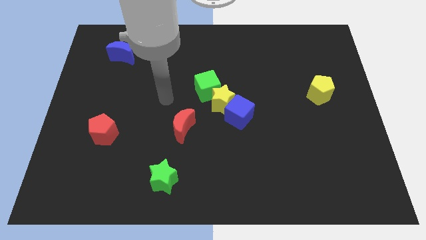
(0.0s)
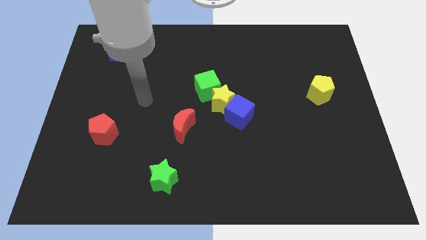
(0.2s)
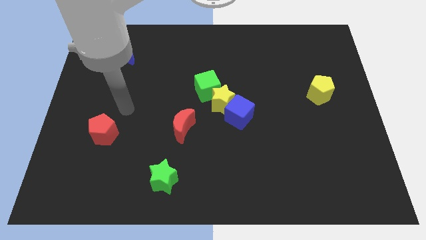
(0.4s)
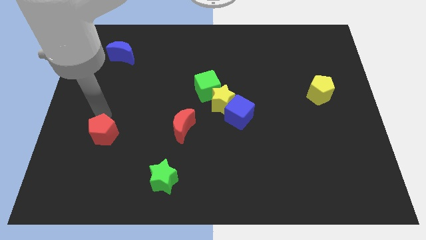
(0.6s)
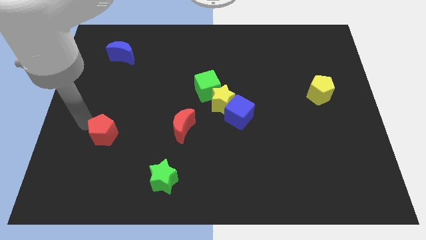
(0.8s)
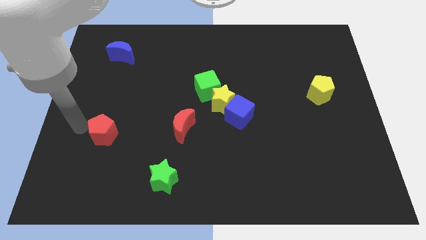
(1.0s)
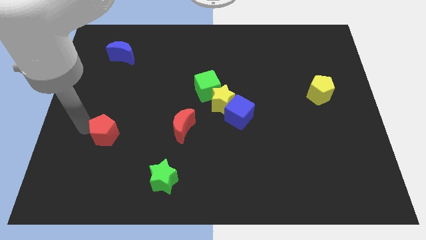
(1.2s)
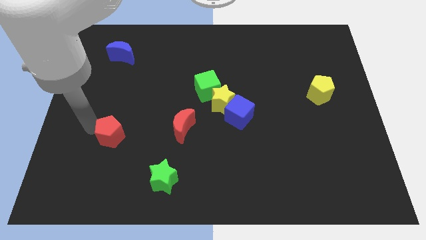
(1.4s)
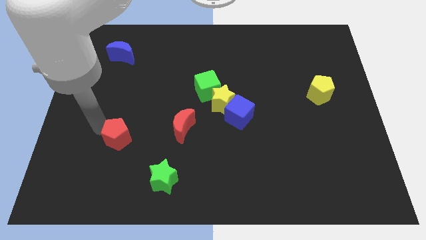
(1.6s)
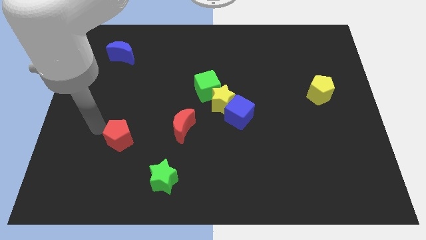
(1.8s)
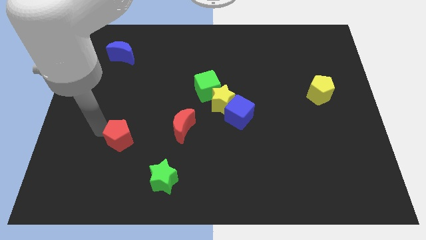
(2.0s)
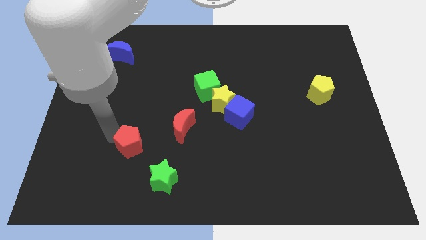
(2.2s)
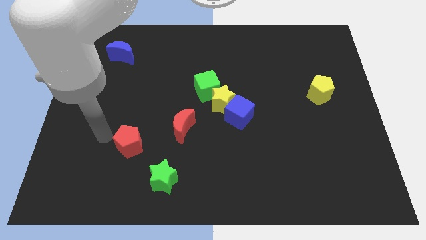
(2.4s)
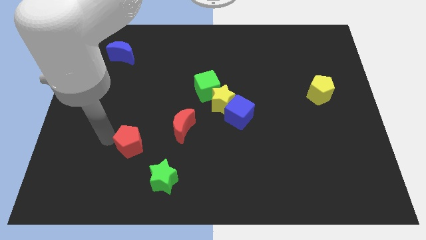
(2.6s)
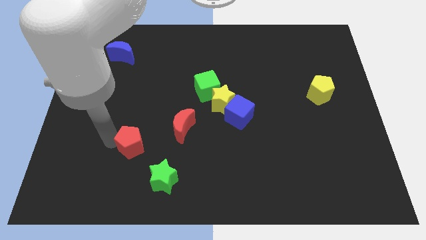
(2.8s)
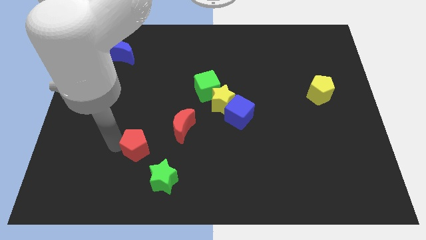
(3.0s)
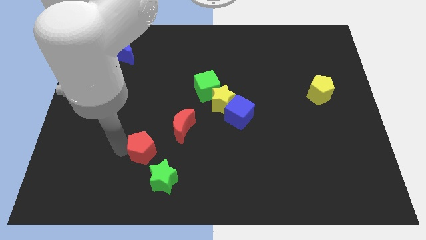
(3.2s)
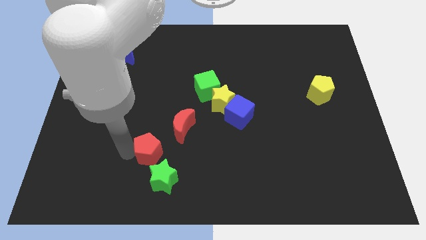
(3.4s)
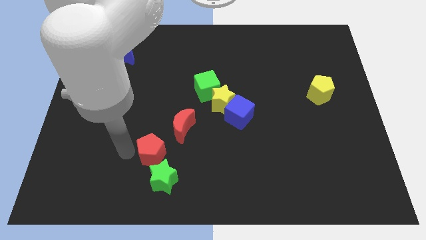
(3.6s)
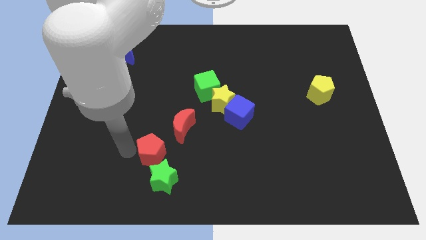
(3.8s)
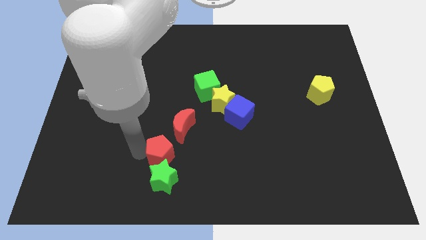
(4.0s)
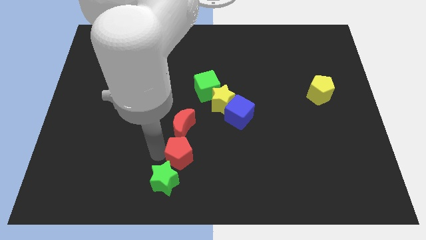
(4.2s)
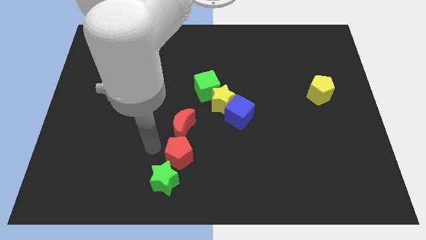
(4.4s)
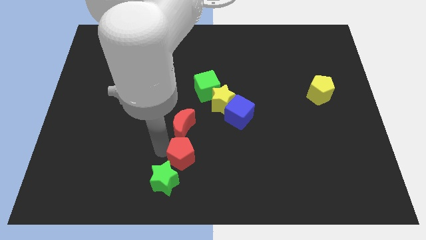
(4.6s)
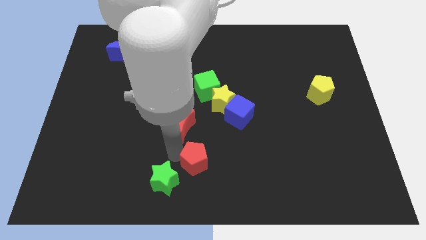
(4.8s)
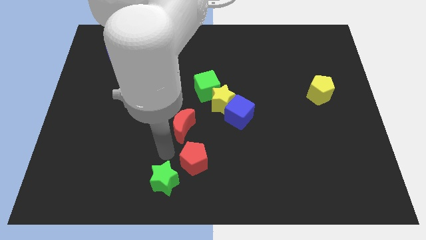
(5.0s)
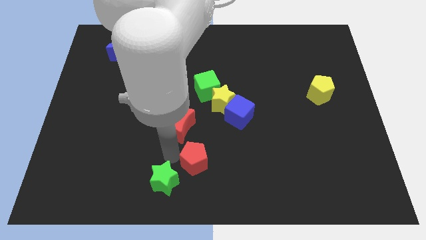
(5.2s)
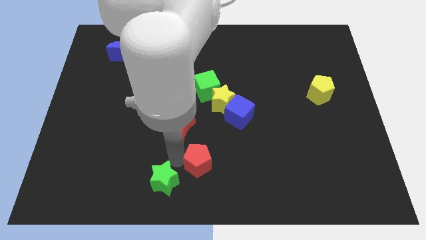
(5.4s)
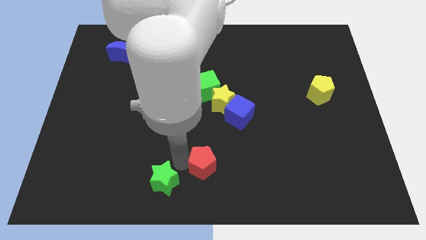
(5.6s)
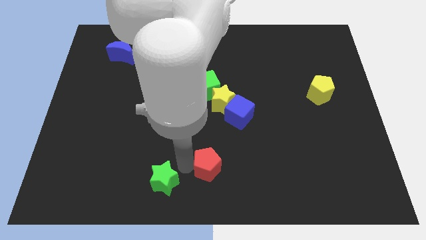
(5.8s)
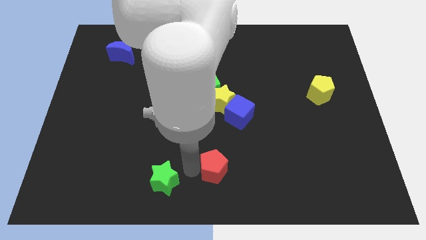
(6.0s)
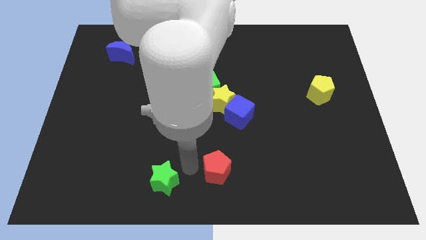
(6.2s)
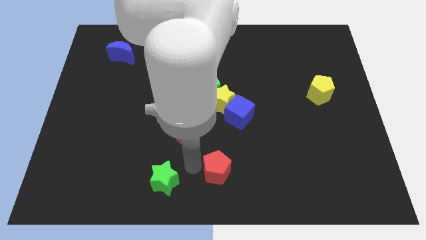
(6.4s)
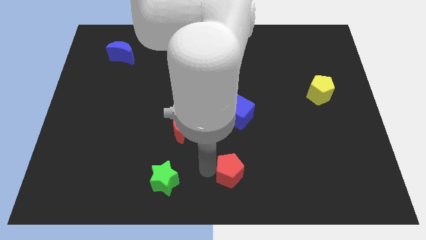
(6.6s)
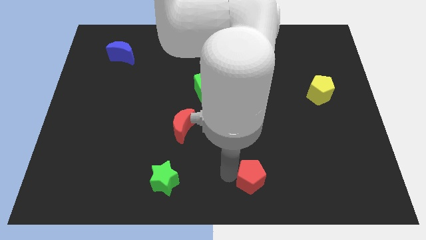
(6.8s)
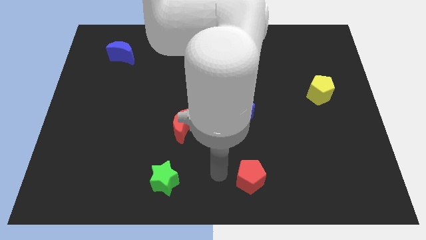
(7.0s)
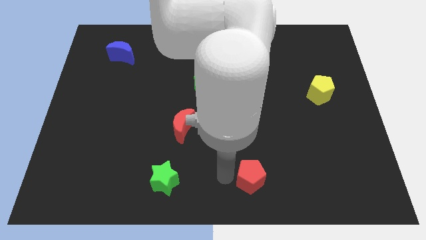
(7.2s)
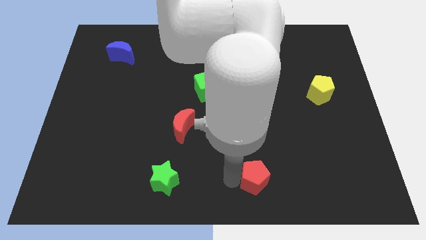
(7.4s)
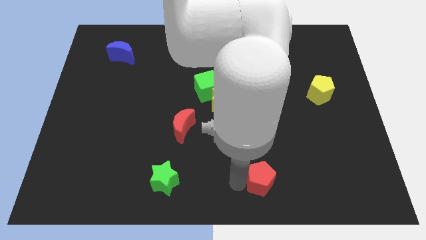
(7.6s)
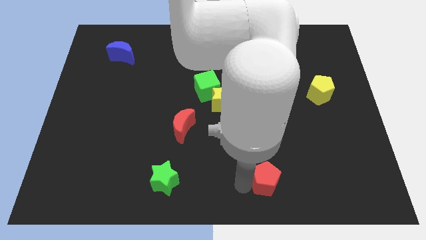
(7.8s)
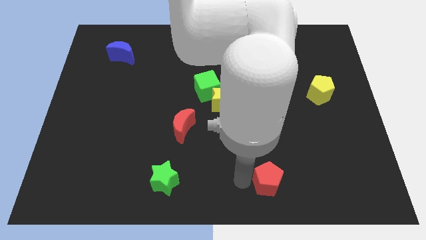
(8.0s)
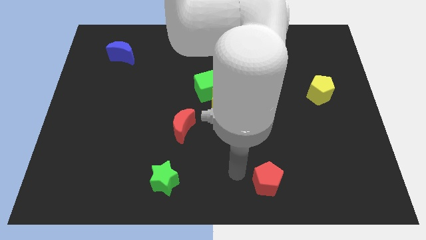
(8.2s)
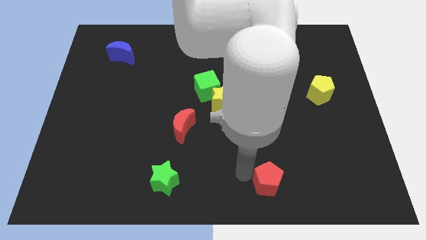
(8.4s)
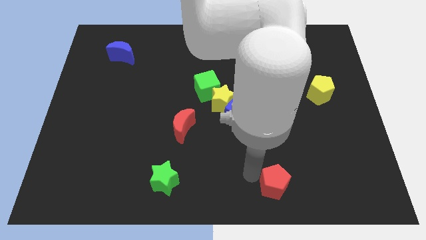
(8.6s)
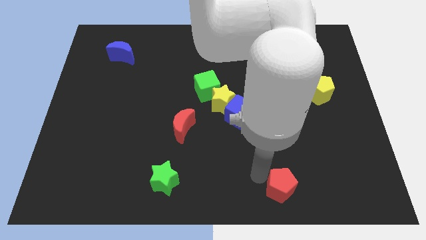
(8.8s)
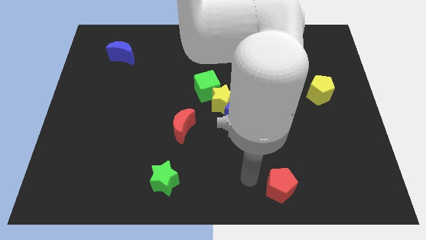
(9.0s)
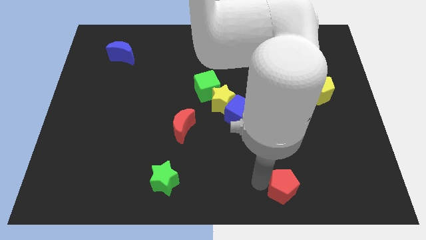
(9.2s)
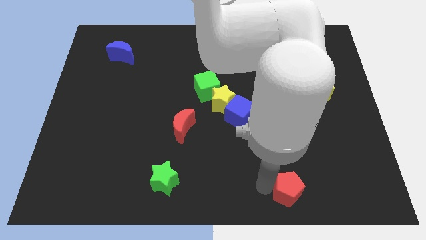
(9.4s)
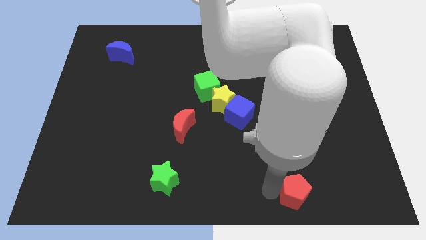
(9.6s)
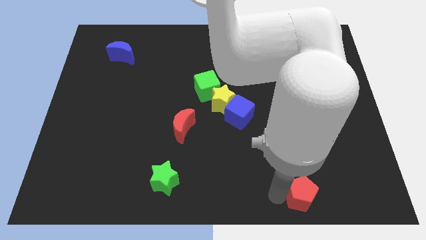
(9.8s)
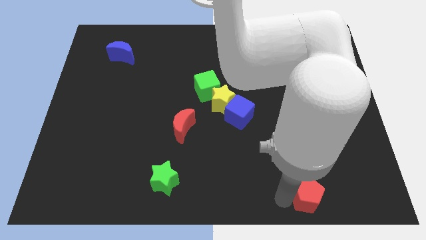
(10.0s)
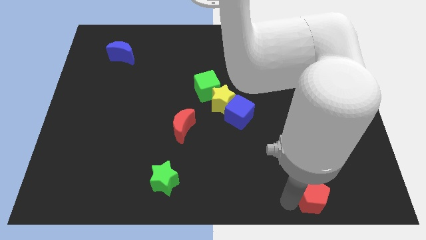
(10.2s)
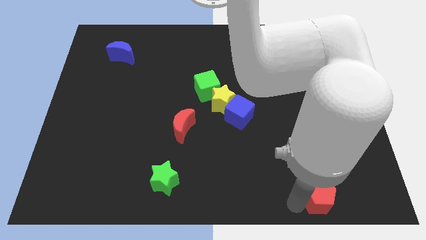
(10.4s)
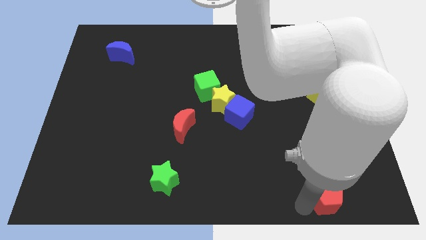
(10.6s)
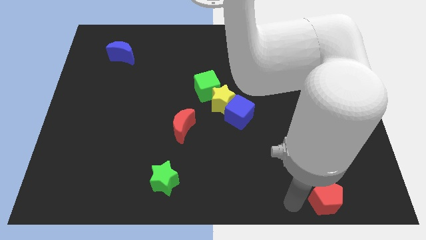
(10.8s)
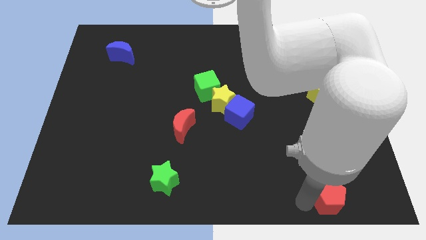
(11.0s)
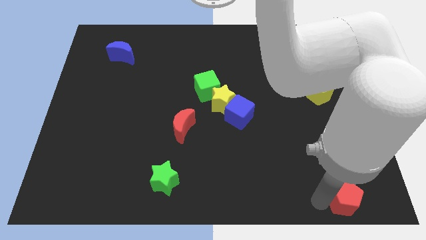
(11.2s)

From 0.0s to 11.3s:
push the red pentagon to the bottom right corner

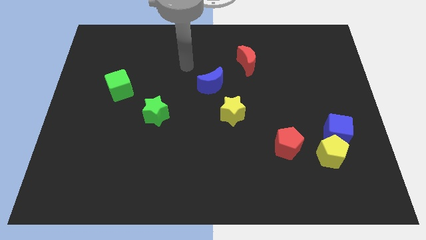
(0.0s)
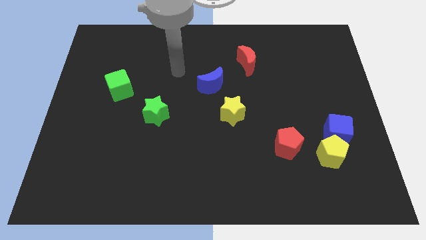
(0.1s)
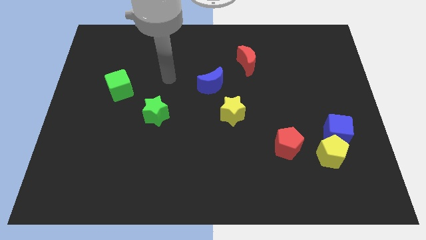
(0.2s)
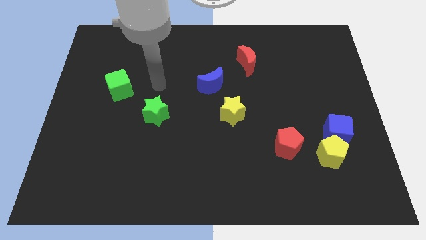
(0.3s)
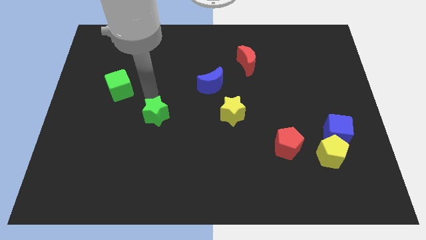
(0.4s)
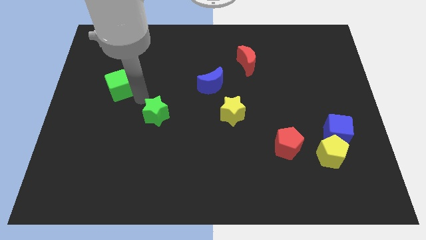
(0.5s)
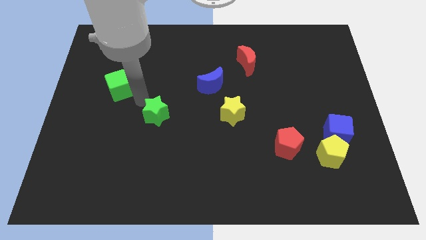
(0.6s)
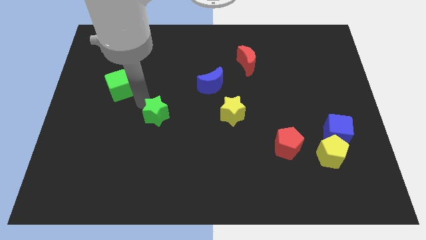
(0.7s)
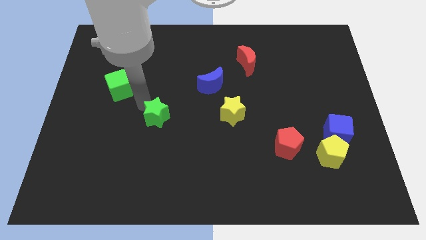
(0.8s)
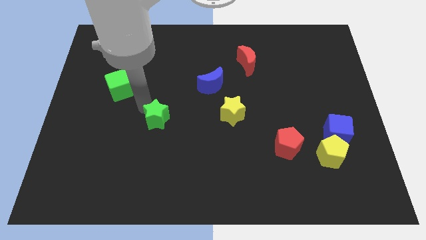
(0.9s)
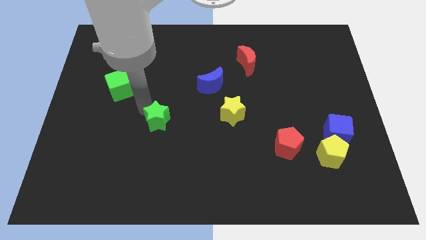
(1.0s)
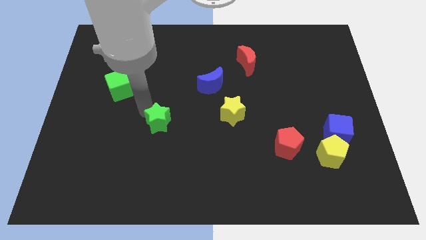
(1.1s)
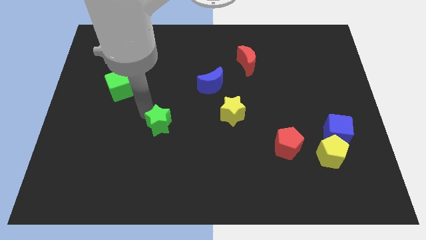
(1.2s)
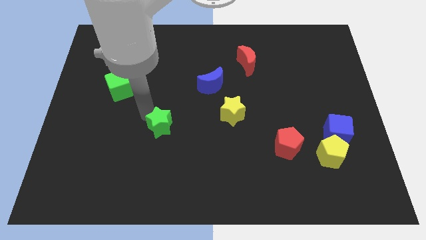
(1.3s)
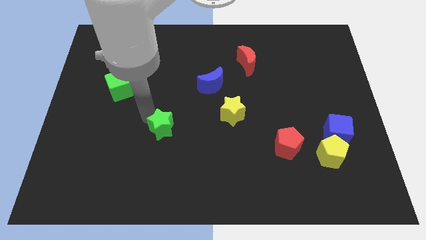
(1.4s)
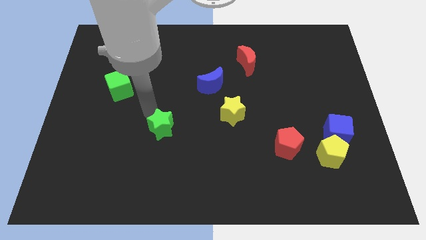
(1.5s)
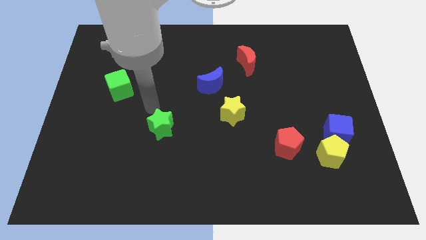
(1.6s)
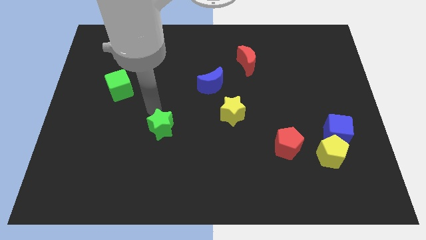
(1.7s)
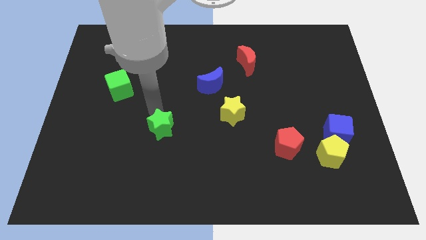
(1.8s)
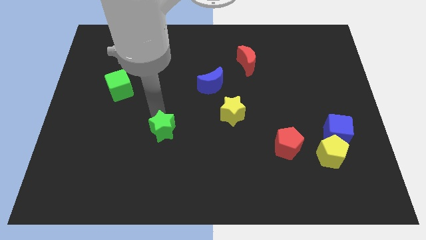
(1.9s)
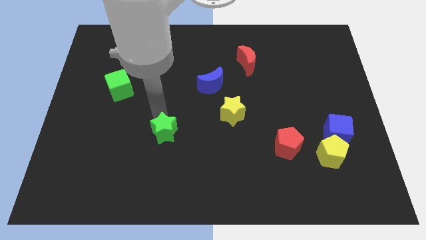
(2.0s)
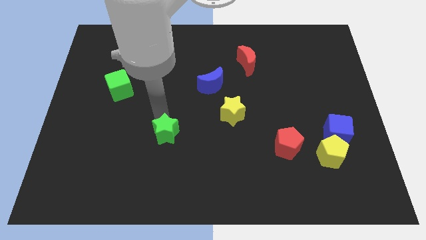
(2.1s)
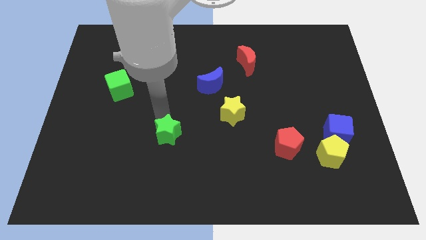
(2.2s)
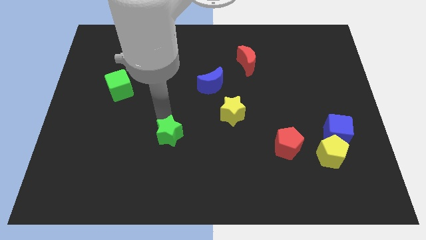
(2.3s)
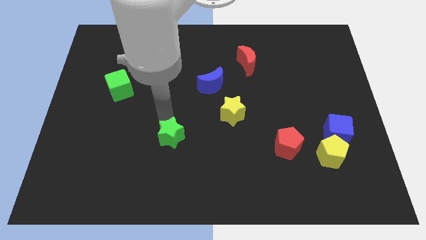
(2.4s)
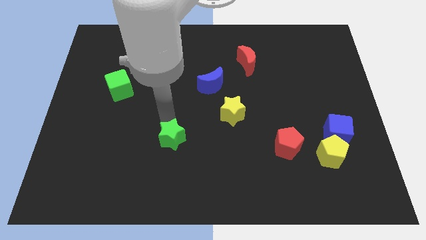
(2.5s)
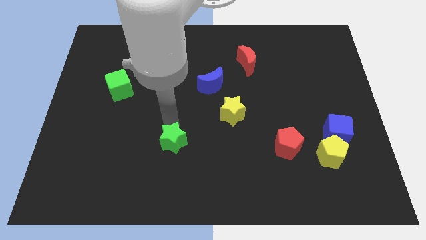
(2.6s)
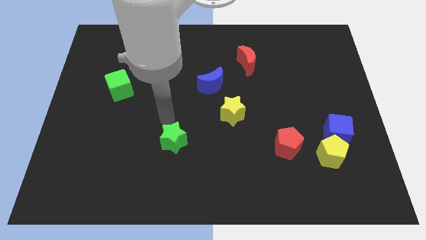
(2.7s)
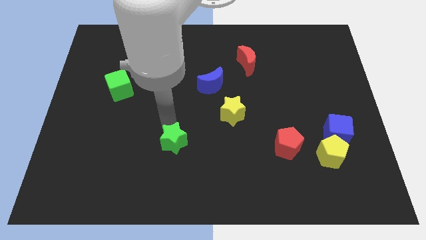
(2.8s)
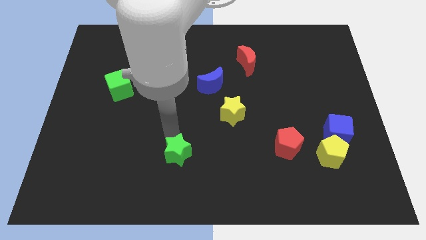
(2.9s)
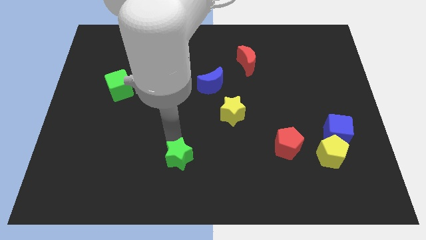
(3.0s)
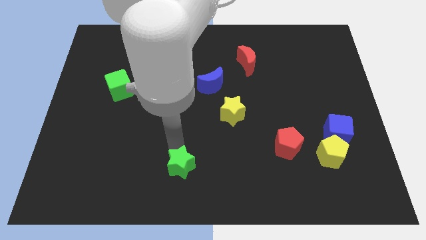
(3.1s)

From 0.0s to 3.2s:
slide the green star to the bottom
